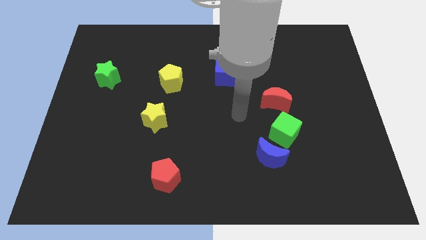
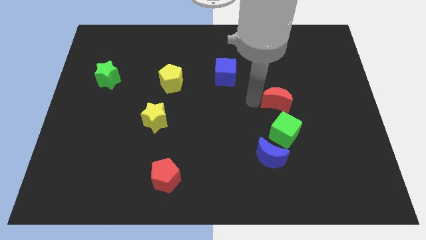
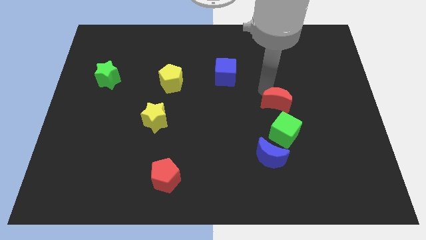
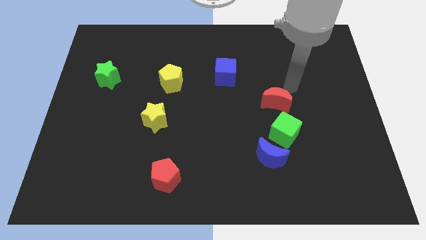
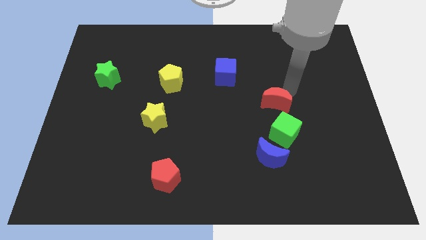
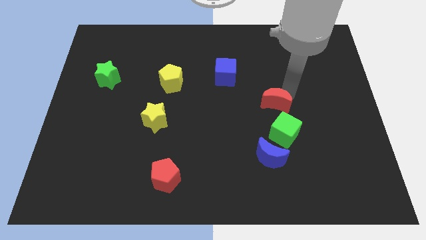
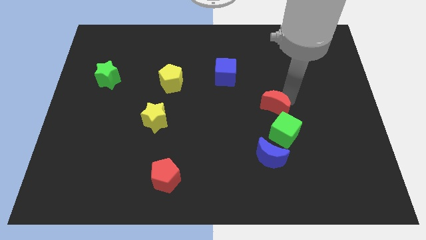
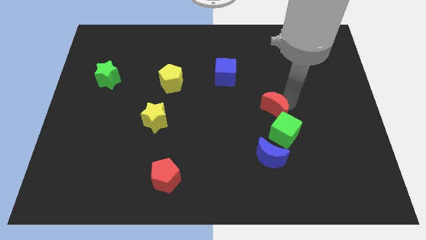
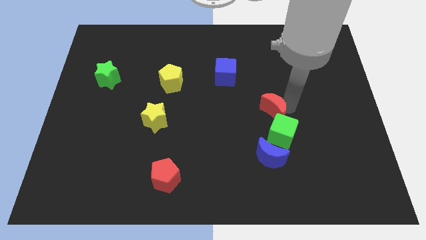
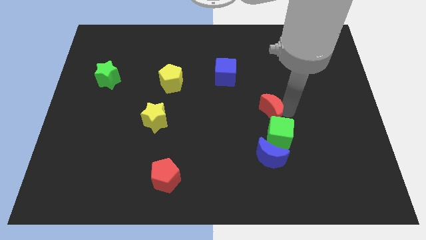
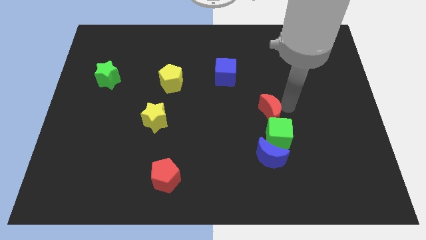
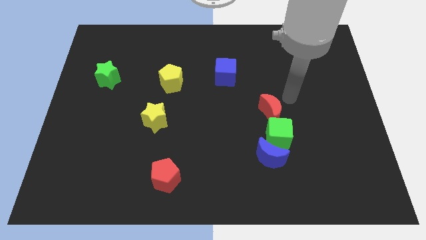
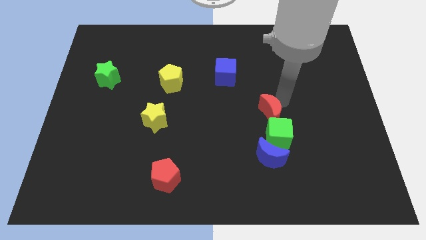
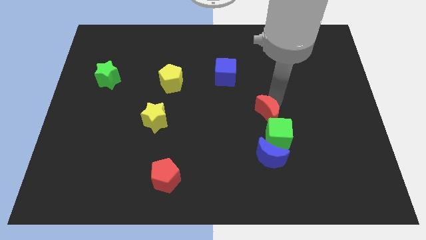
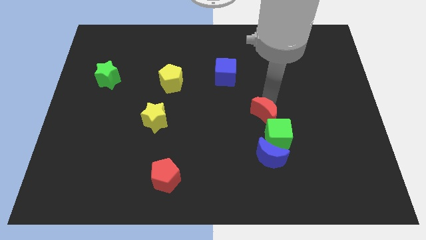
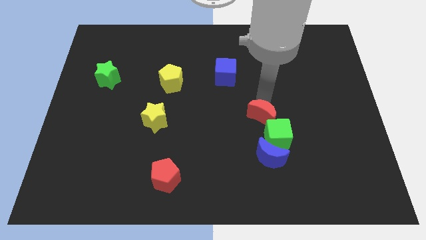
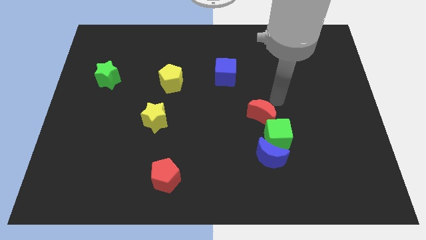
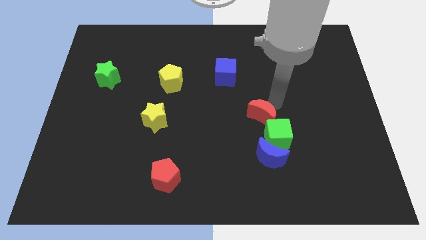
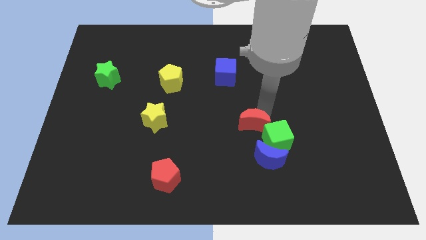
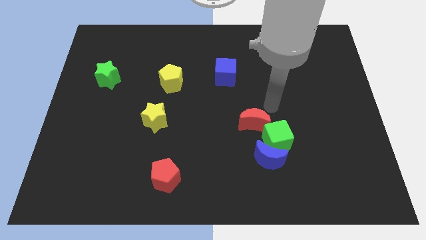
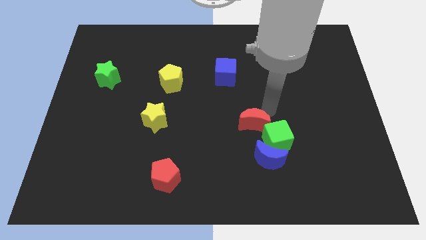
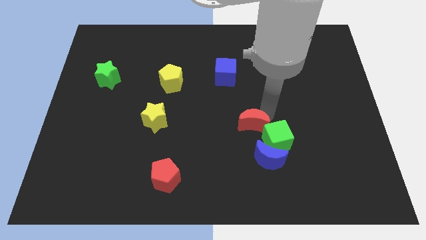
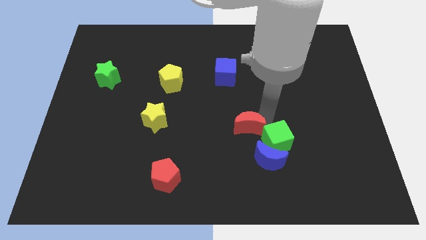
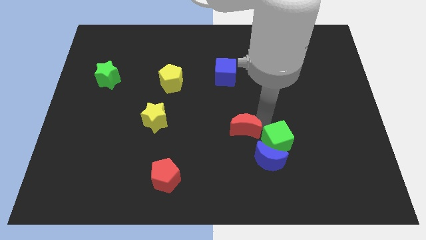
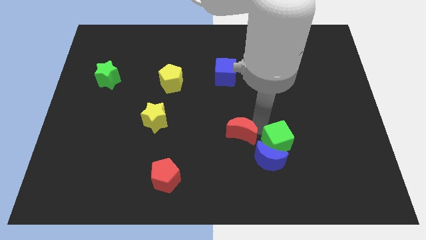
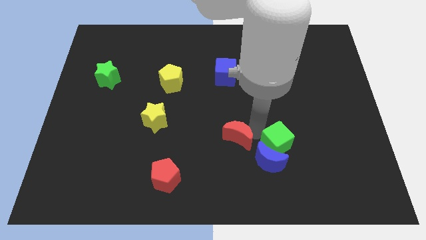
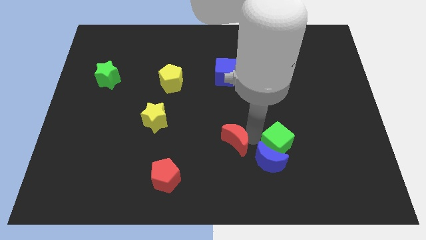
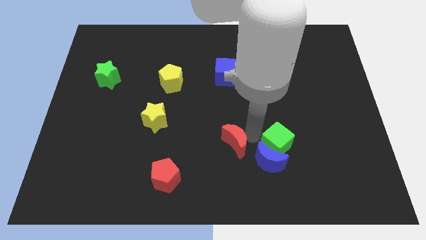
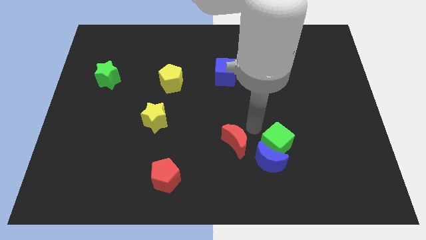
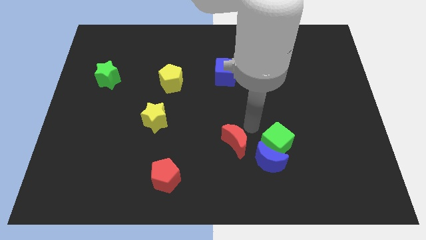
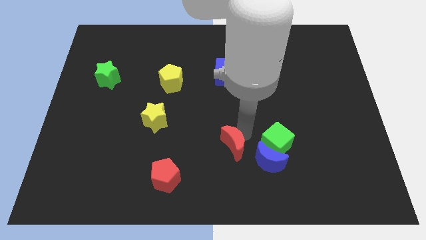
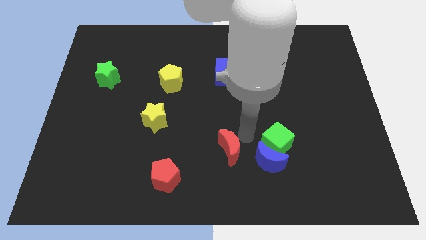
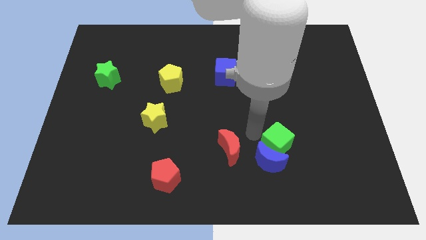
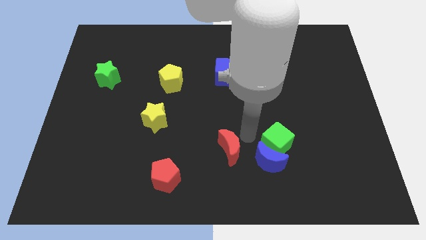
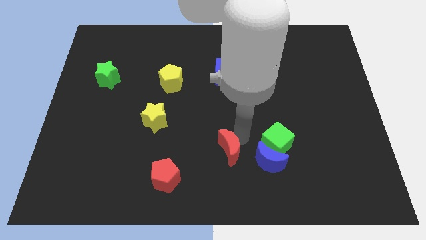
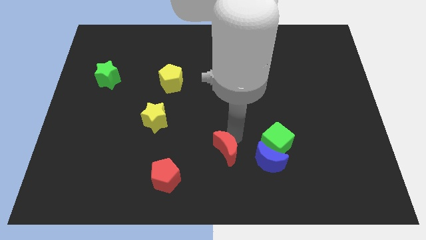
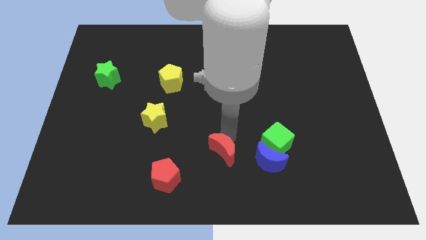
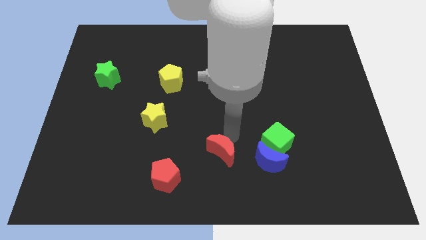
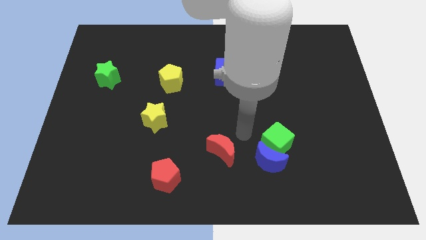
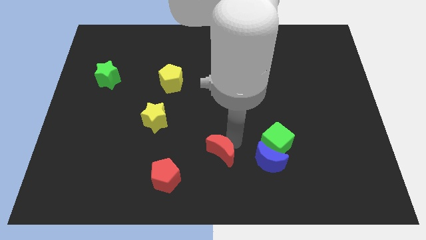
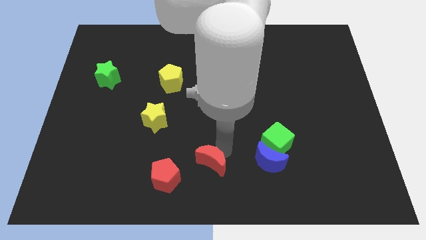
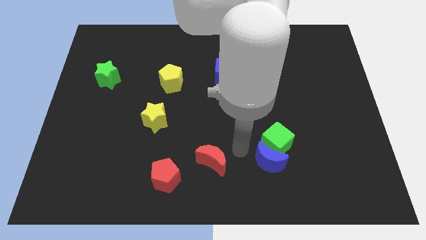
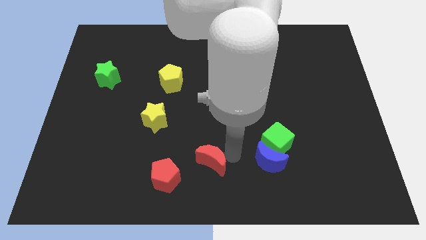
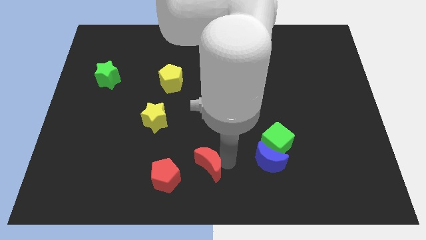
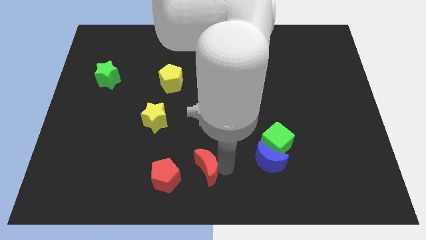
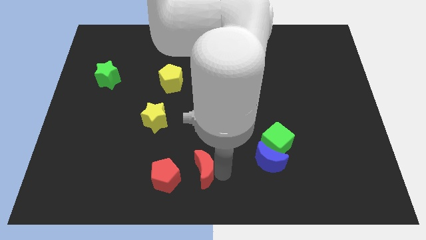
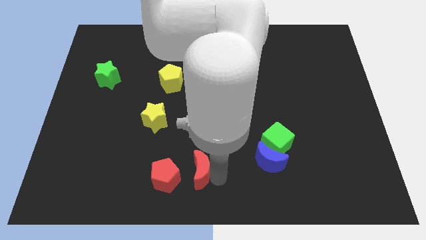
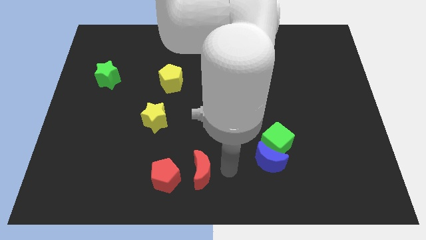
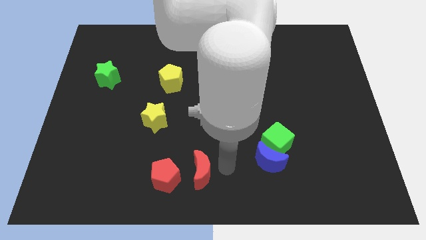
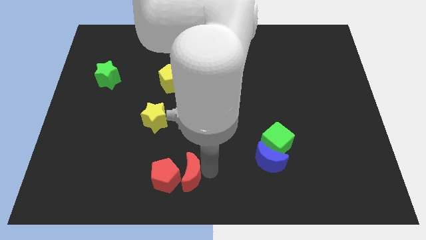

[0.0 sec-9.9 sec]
put the red moon towards the red pentagon

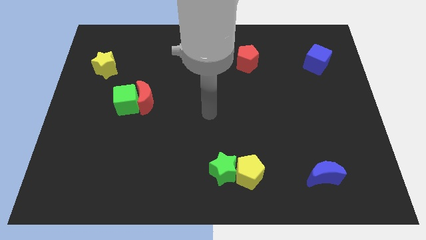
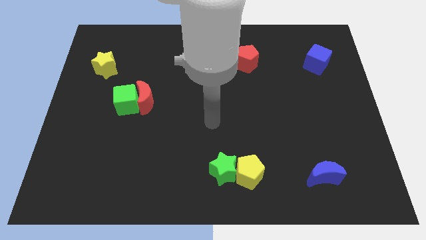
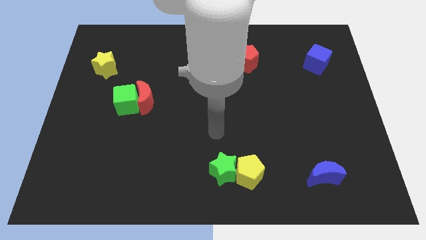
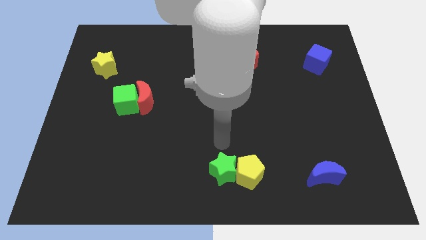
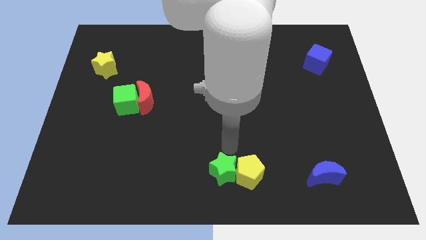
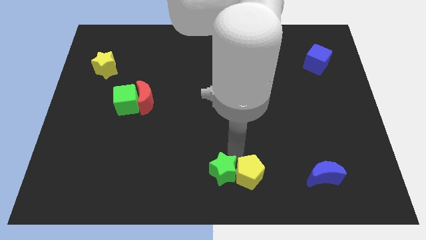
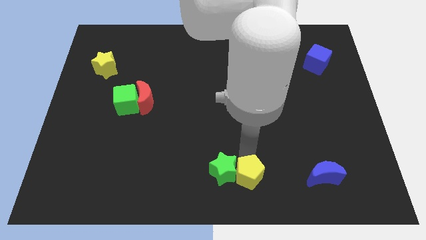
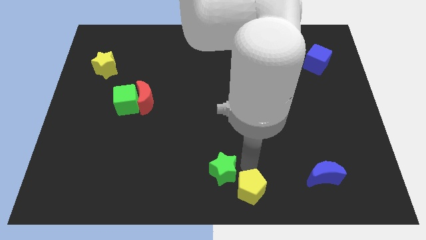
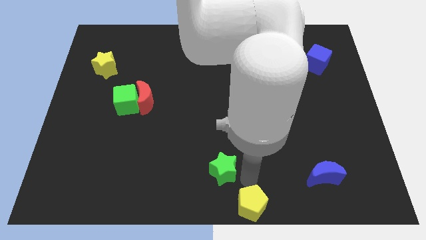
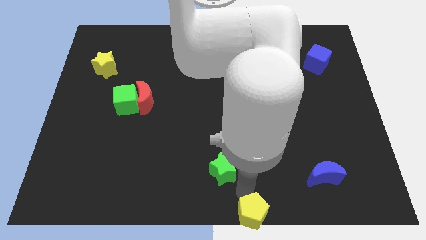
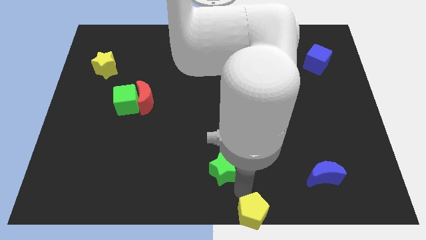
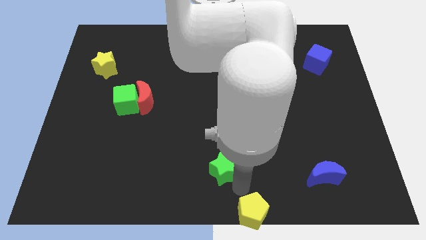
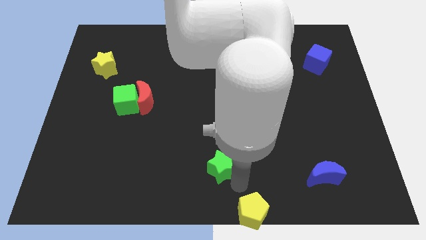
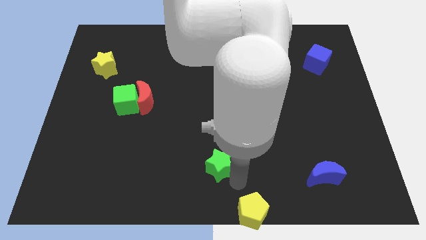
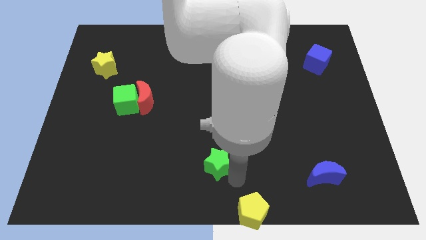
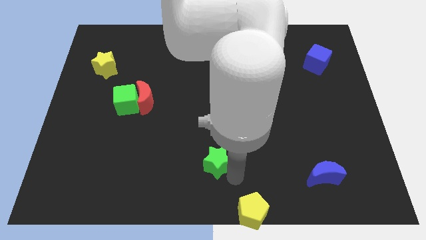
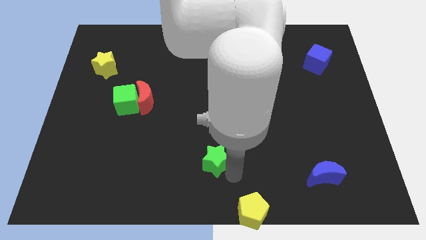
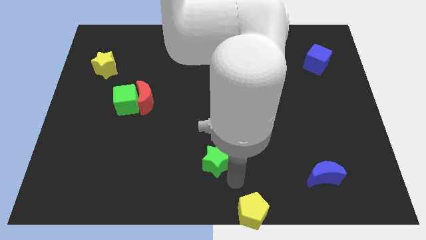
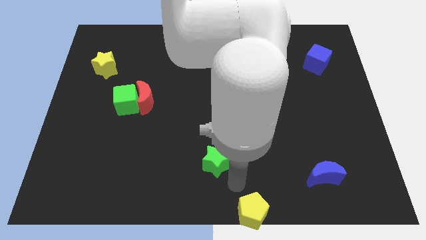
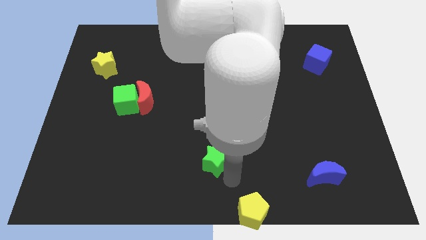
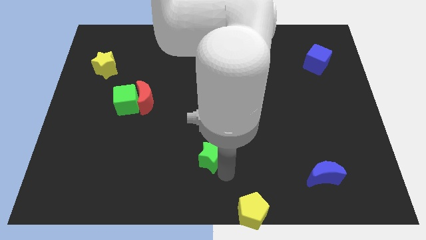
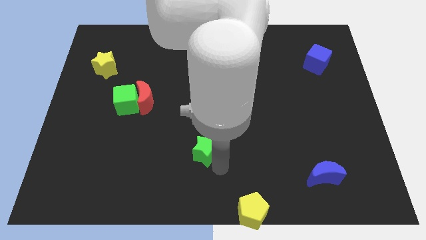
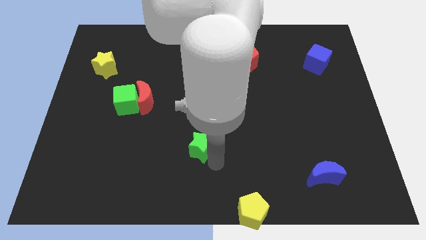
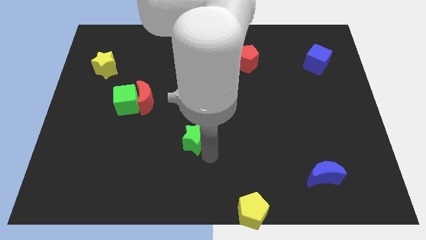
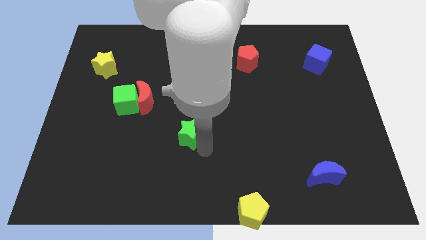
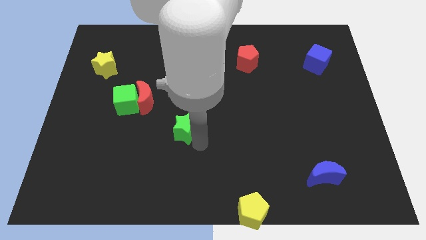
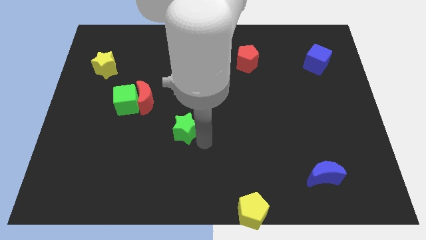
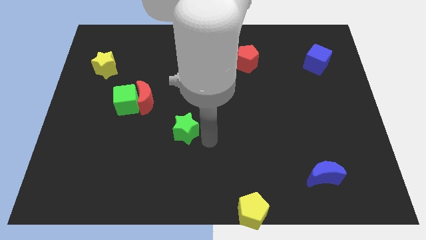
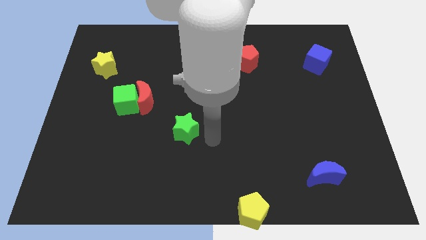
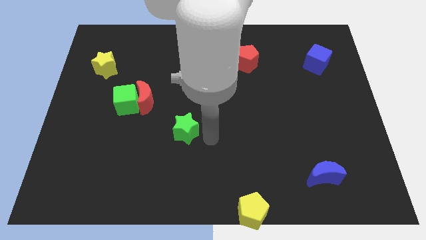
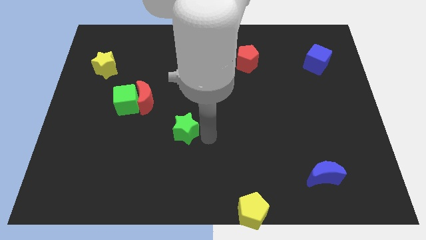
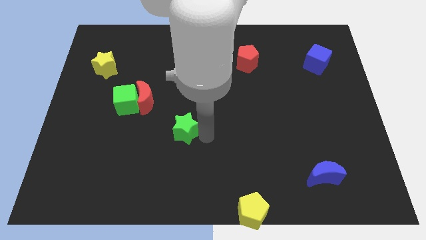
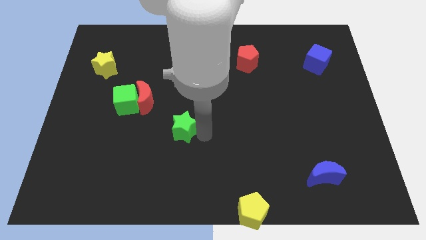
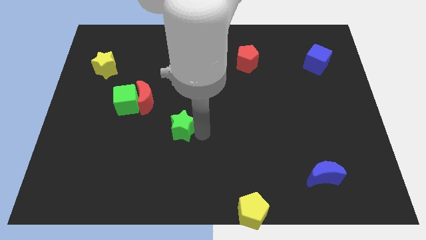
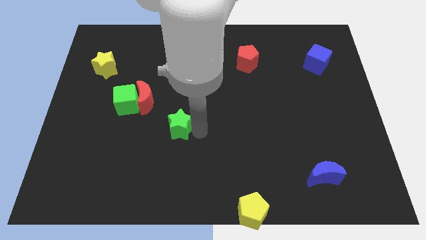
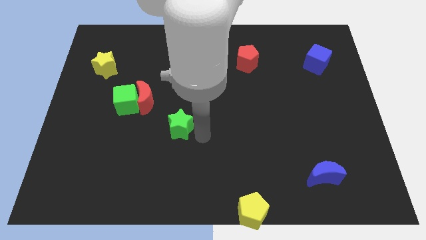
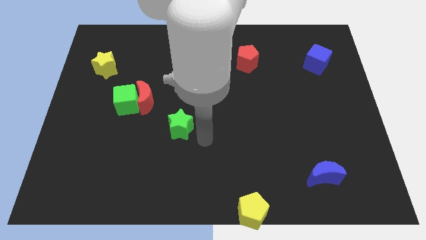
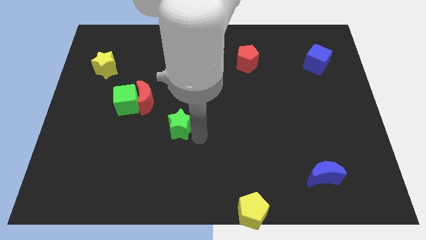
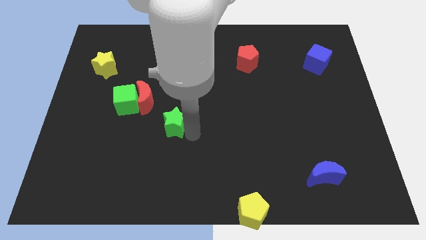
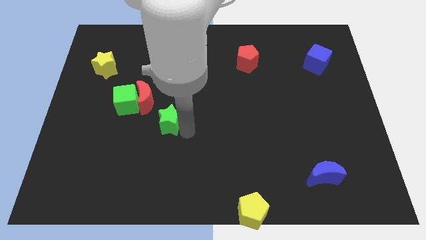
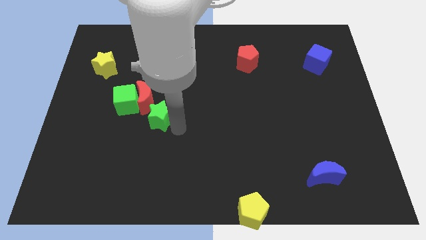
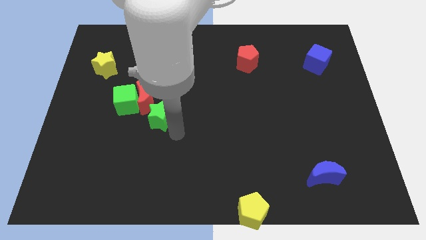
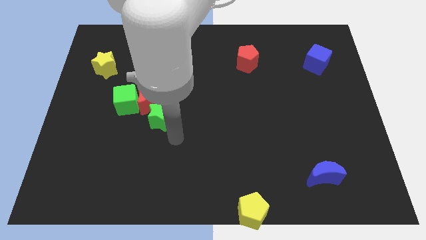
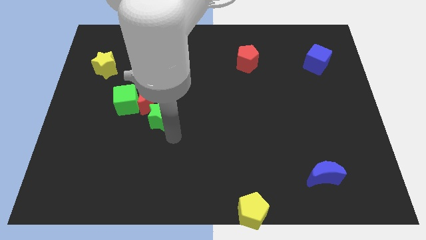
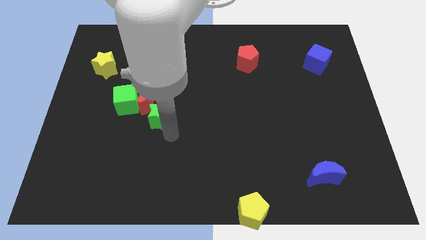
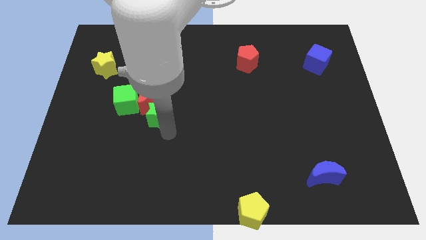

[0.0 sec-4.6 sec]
move the green star towards the red moon
